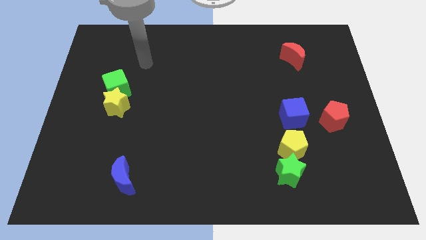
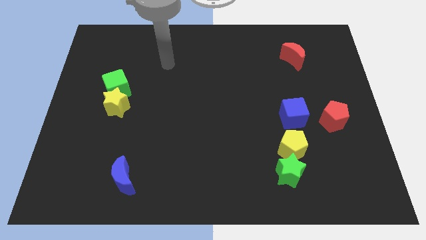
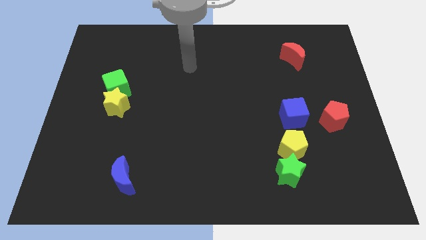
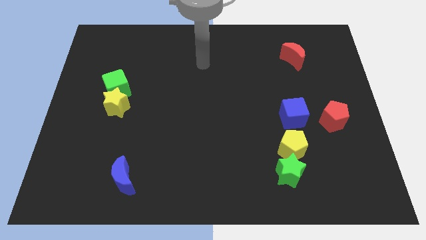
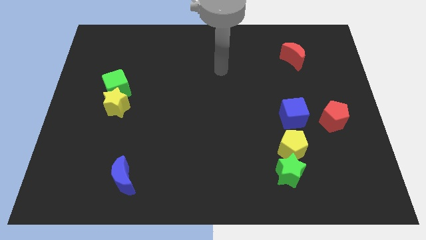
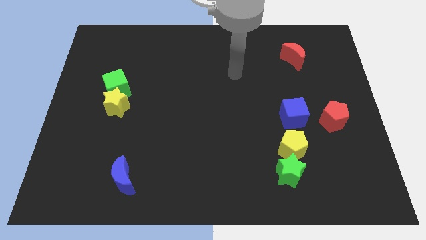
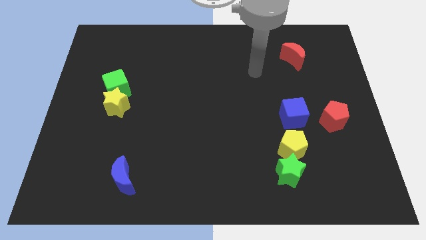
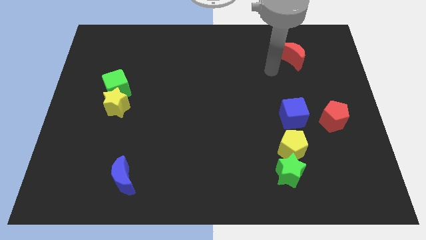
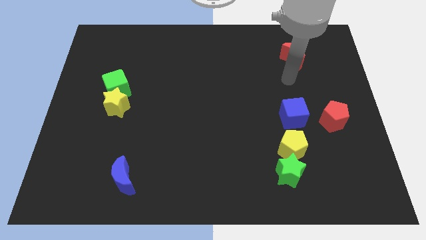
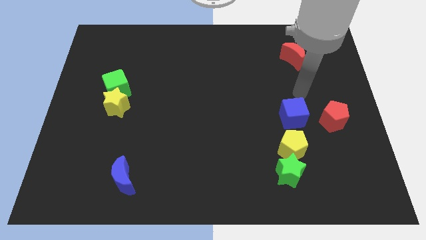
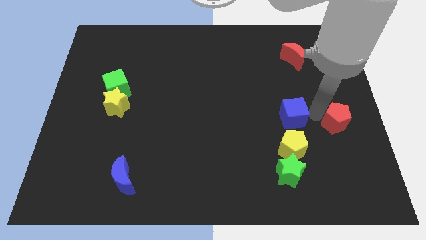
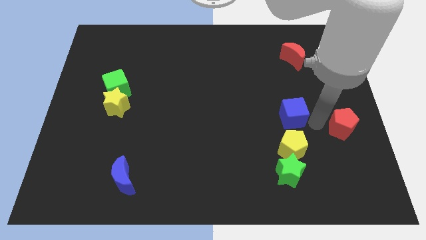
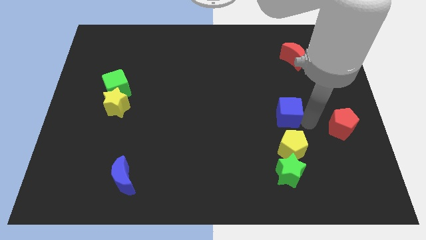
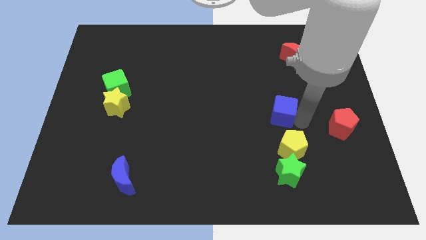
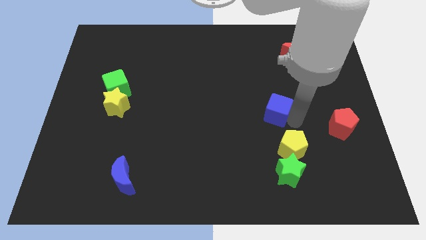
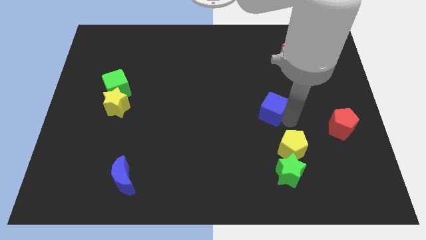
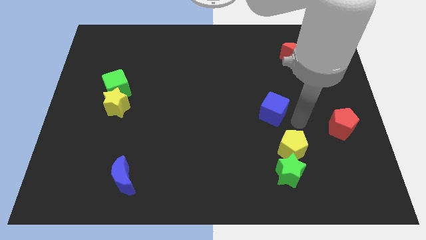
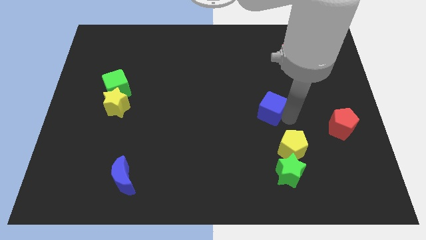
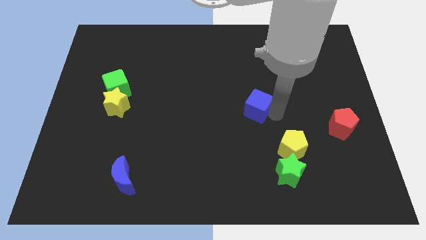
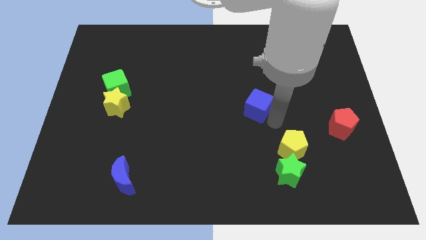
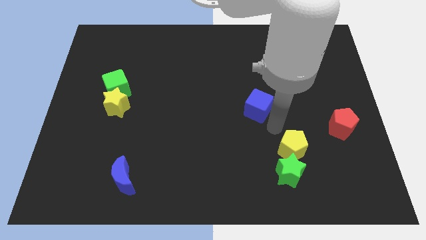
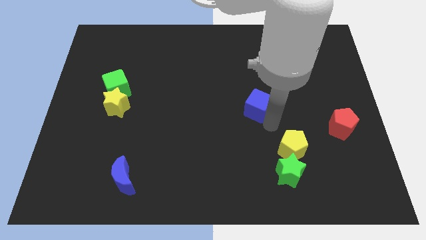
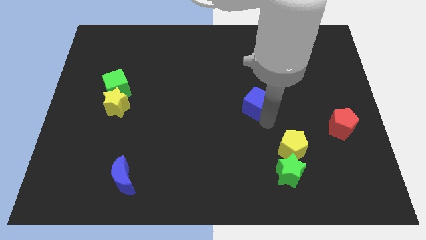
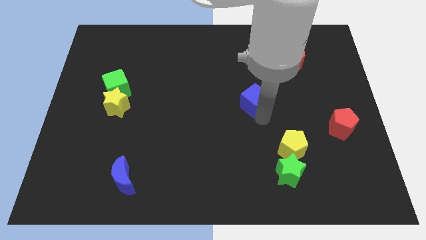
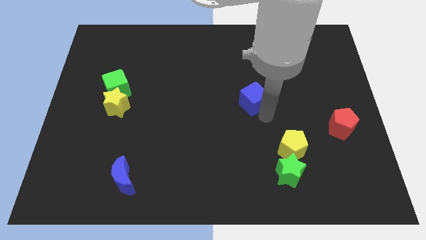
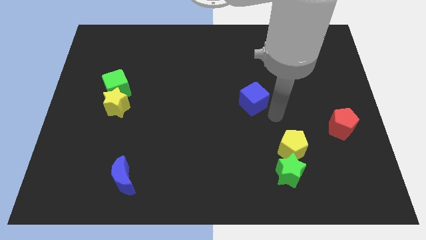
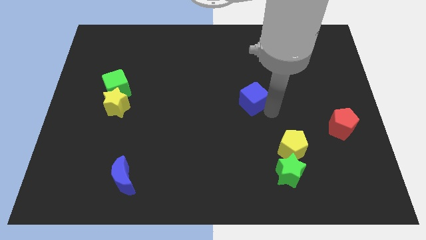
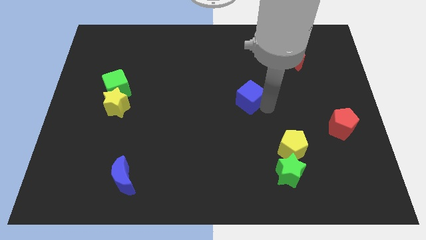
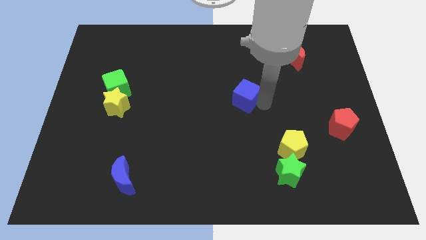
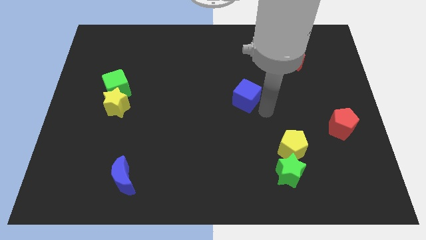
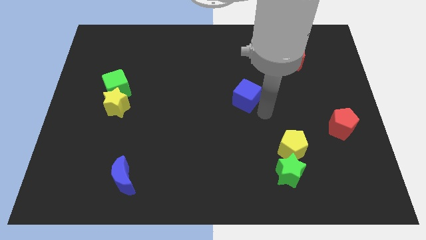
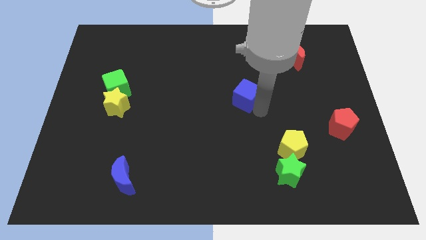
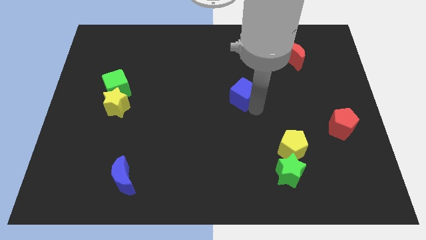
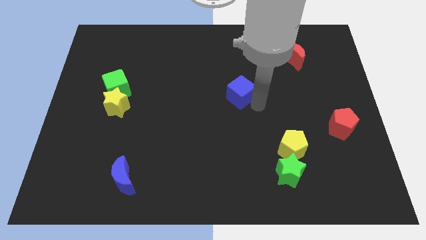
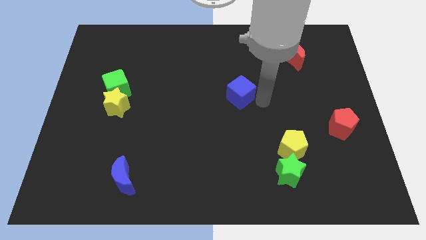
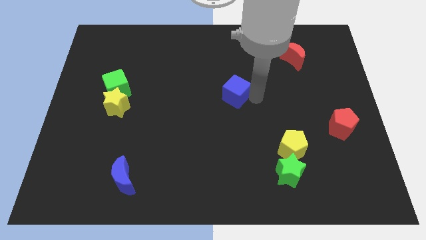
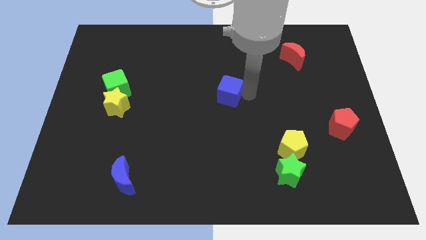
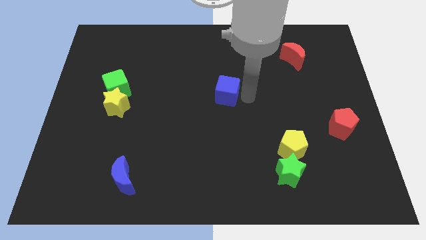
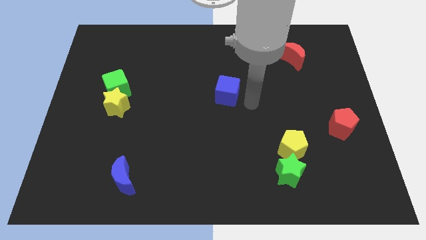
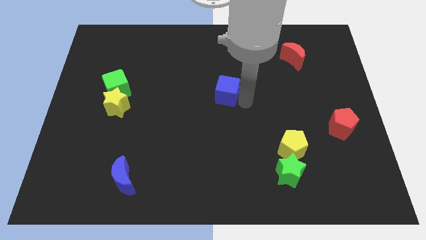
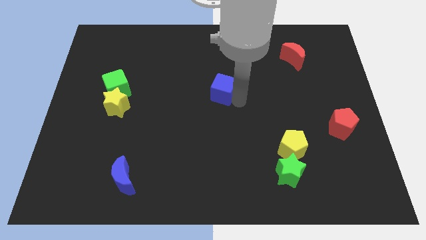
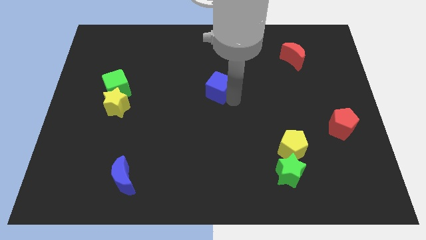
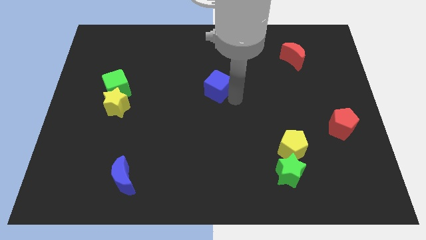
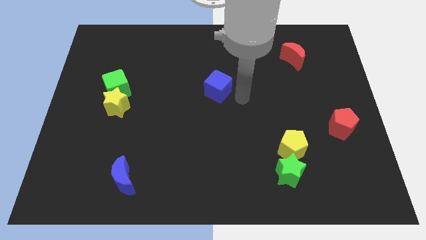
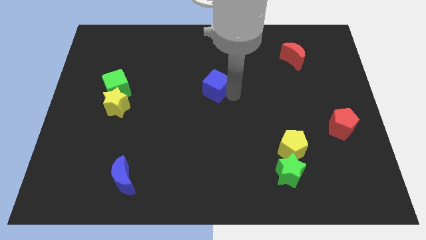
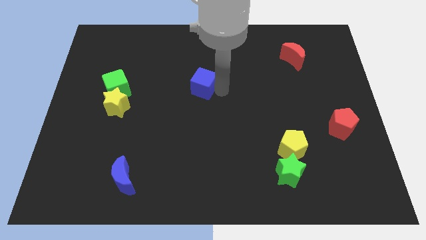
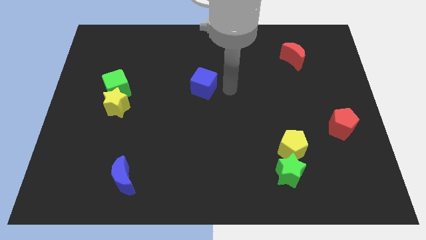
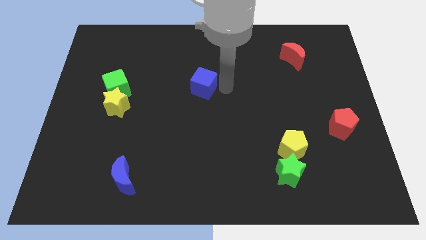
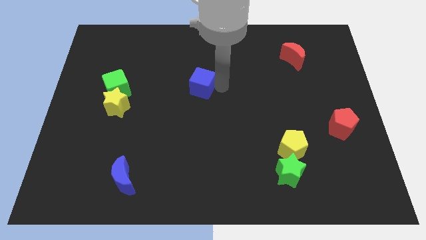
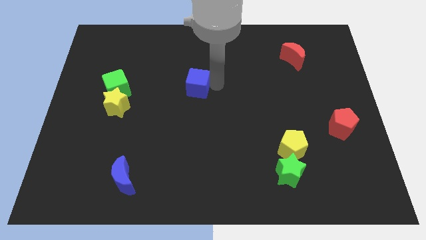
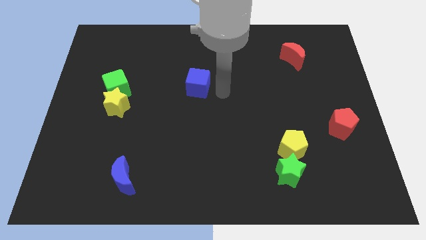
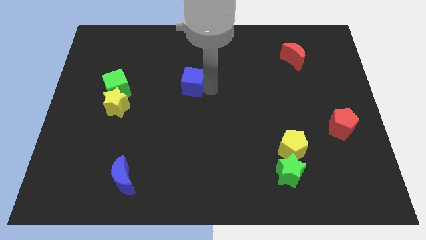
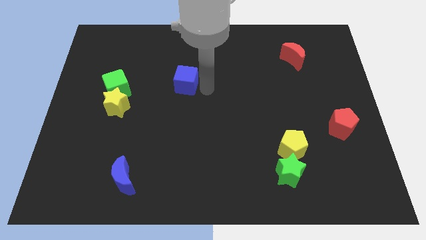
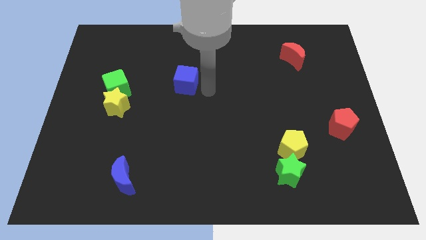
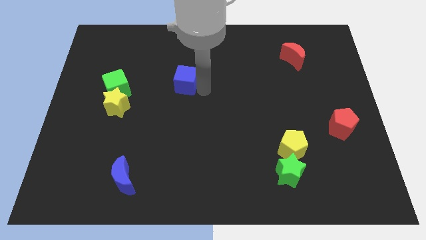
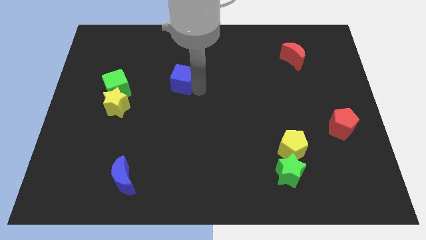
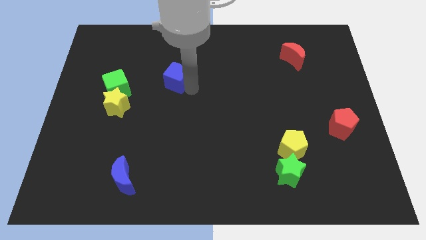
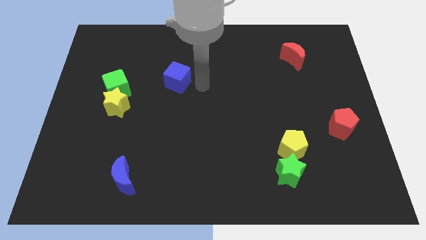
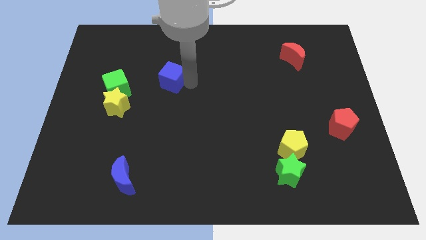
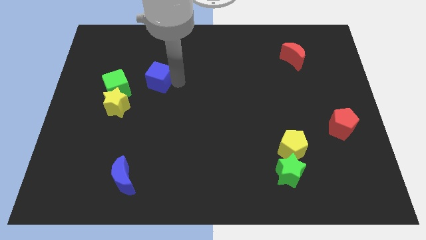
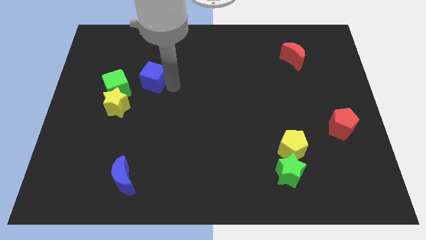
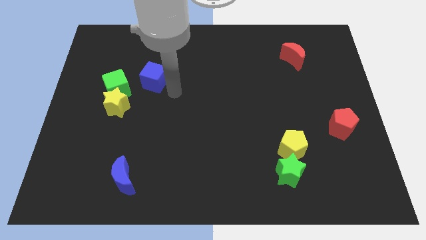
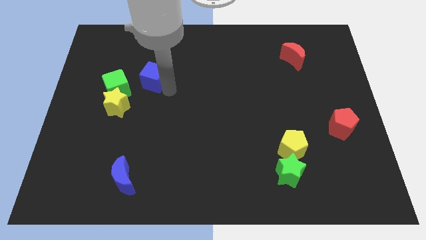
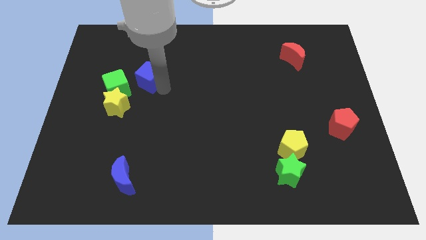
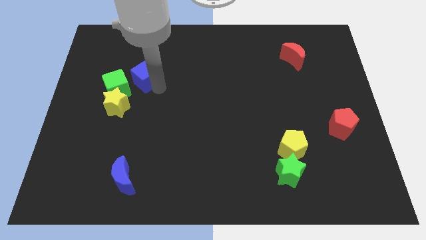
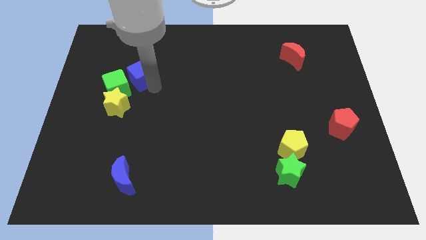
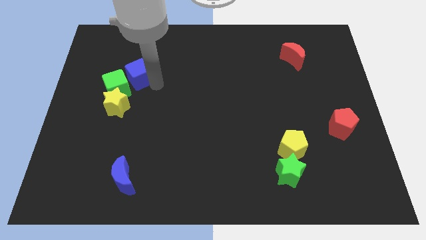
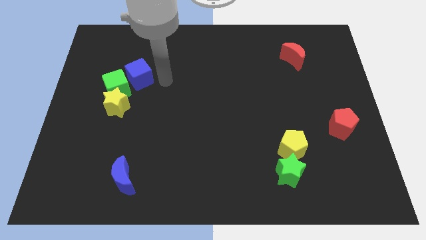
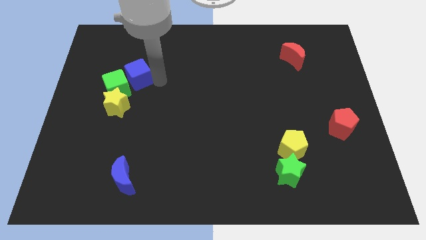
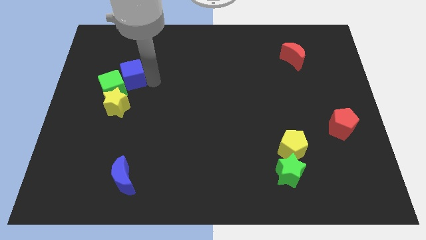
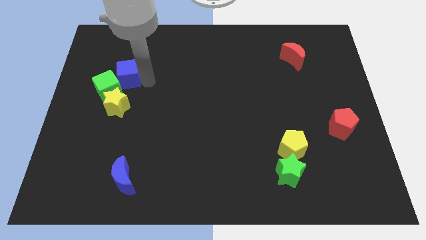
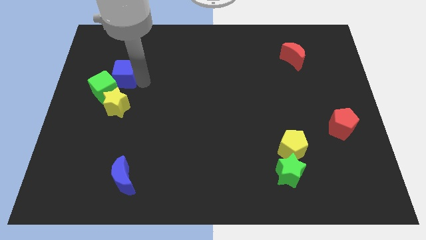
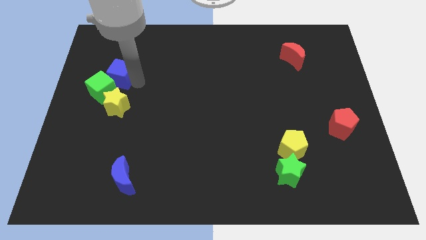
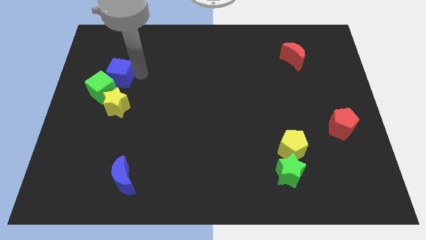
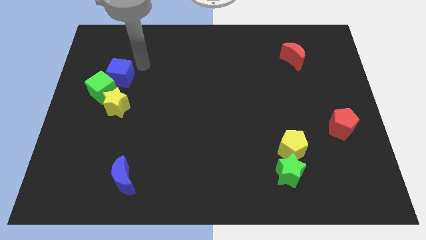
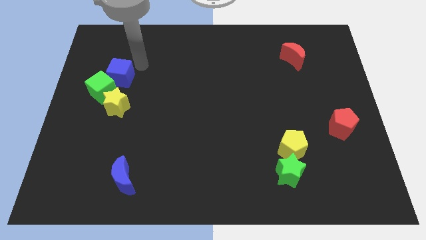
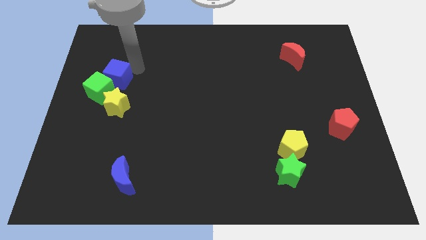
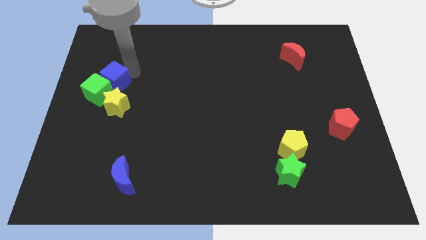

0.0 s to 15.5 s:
slide the blue cube to the top left side of the yellow star
